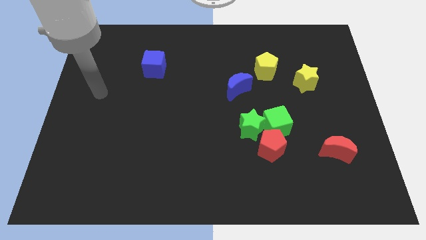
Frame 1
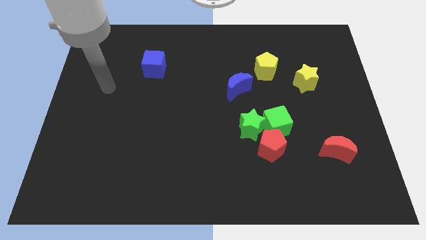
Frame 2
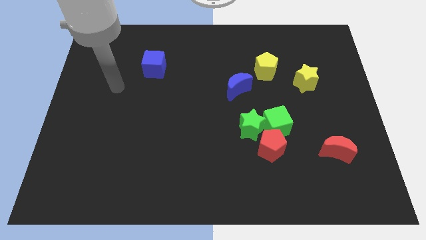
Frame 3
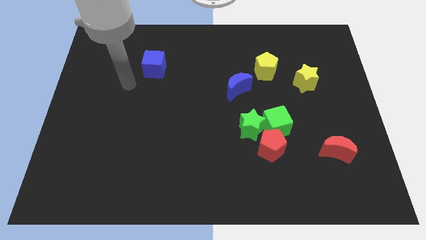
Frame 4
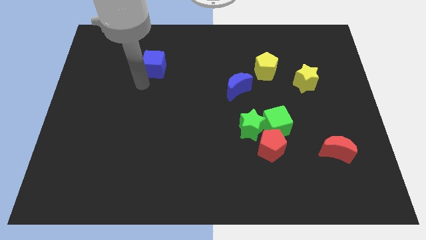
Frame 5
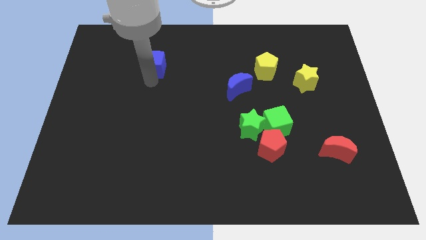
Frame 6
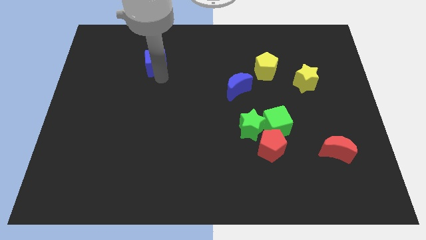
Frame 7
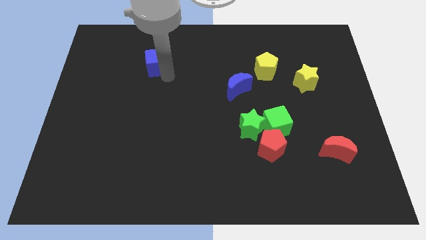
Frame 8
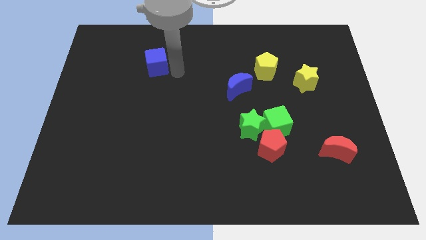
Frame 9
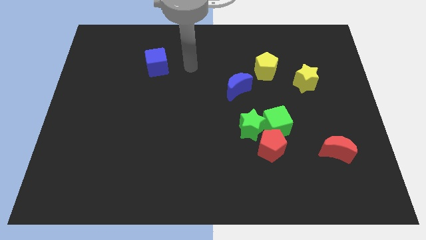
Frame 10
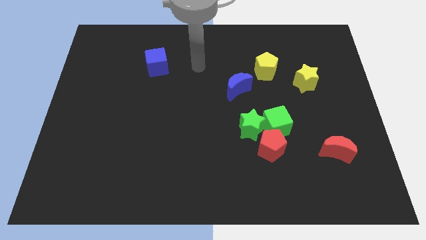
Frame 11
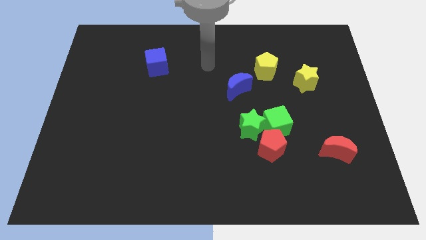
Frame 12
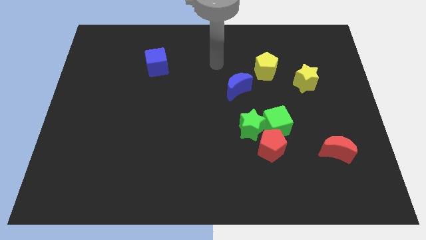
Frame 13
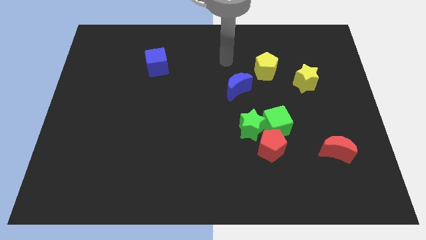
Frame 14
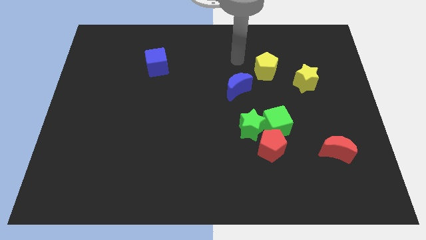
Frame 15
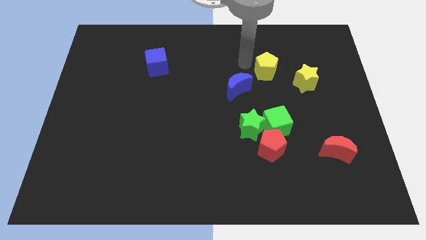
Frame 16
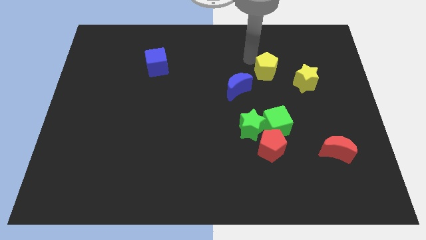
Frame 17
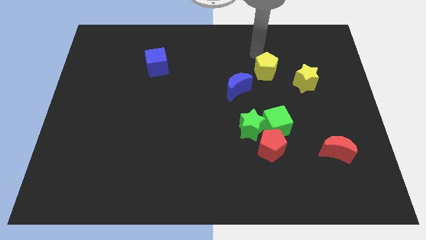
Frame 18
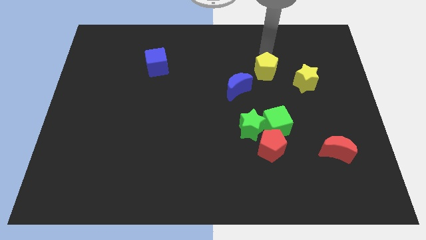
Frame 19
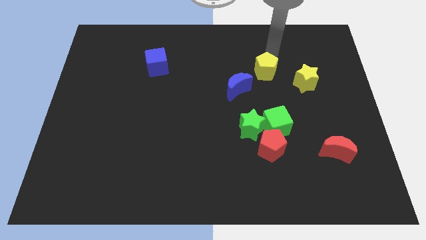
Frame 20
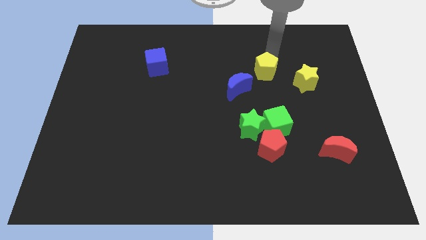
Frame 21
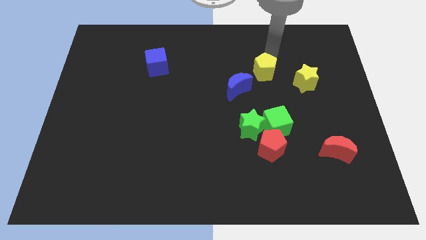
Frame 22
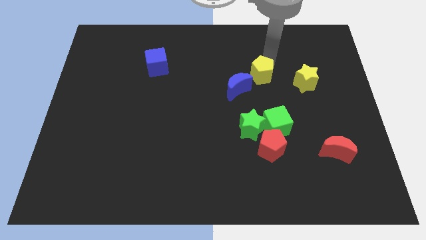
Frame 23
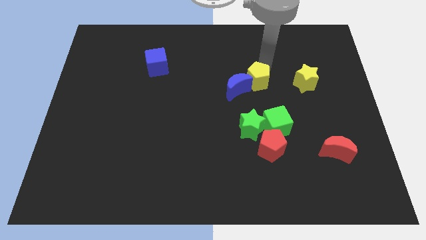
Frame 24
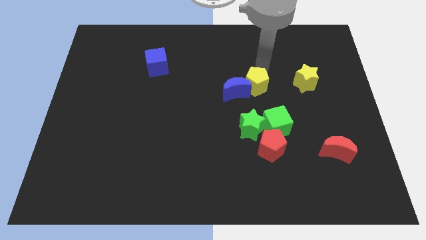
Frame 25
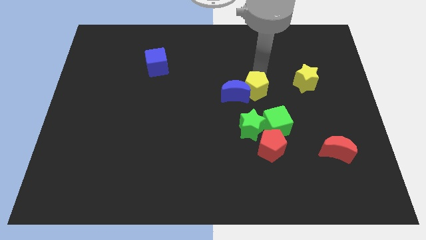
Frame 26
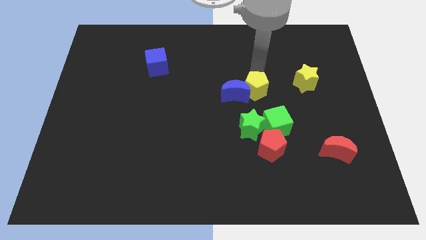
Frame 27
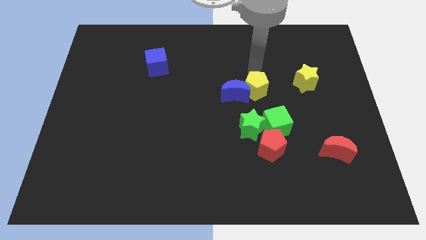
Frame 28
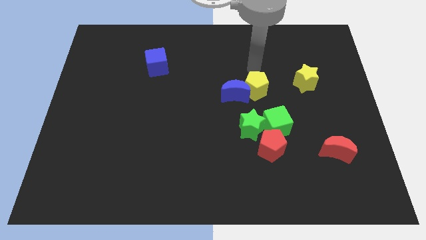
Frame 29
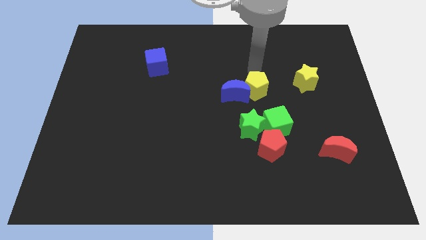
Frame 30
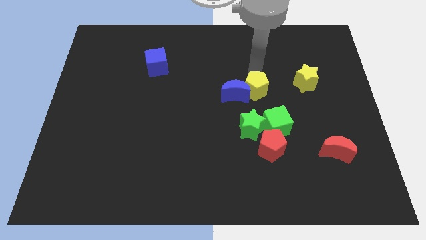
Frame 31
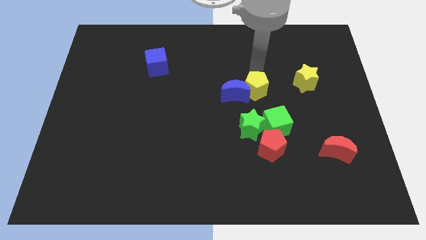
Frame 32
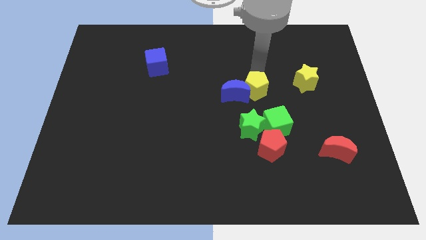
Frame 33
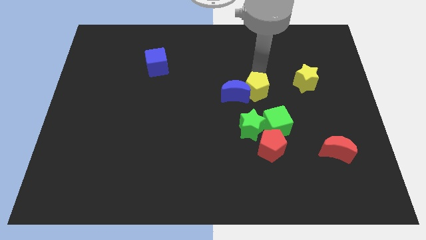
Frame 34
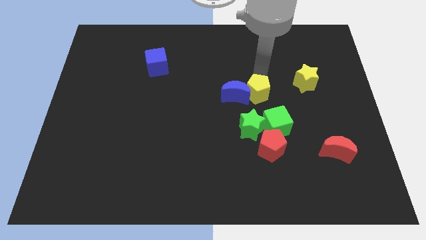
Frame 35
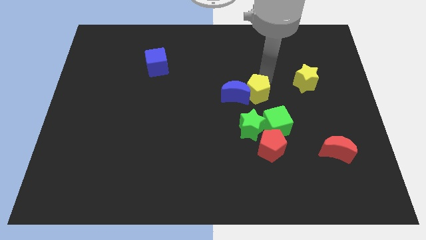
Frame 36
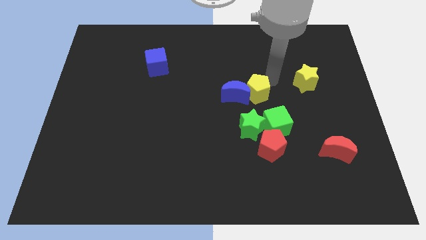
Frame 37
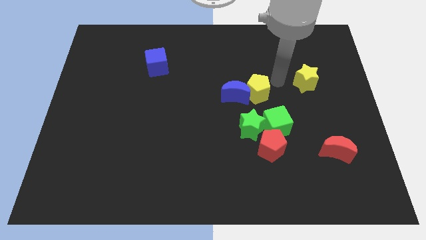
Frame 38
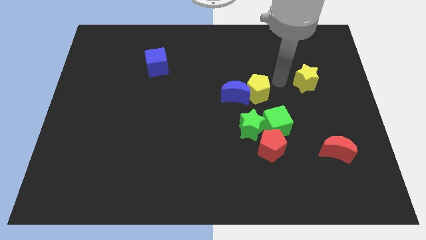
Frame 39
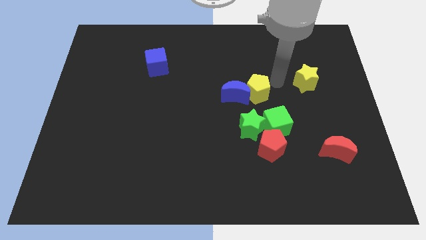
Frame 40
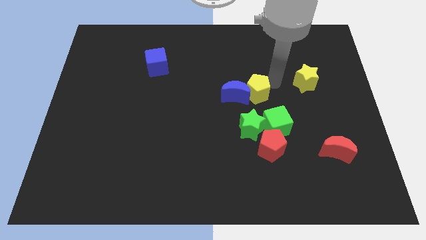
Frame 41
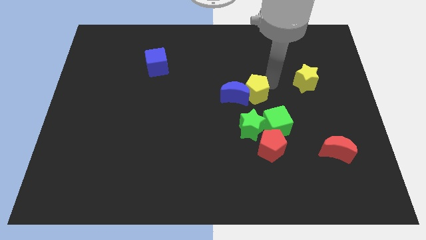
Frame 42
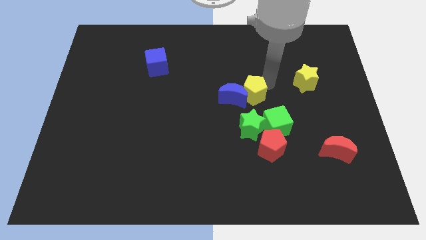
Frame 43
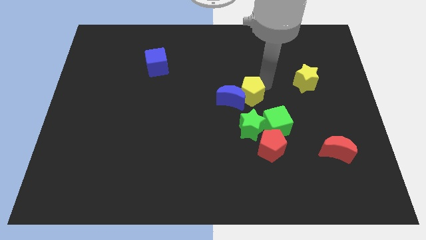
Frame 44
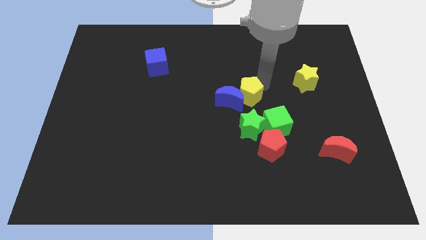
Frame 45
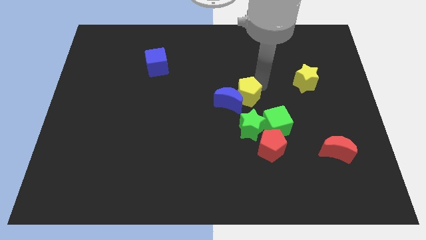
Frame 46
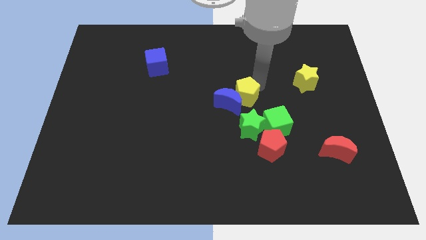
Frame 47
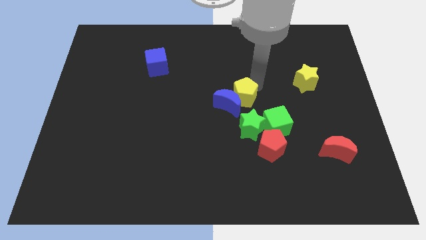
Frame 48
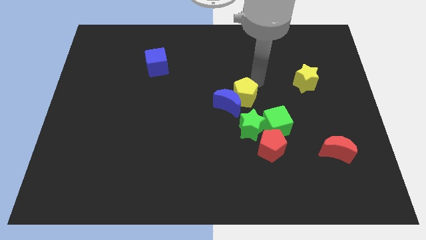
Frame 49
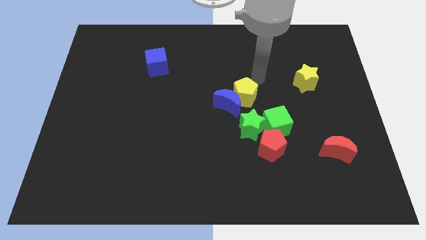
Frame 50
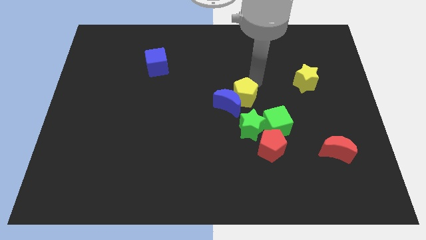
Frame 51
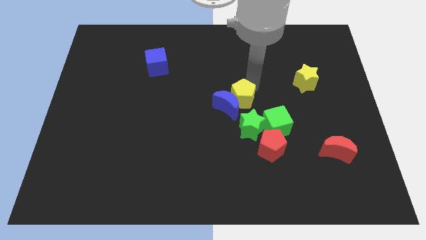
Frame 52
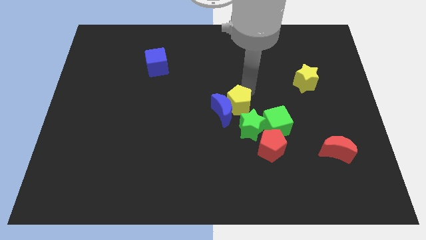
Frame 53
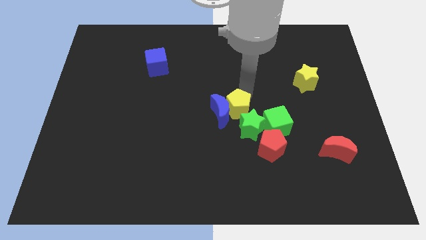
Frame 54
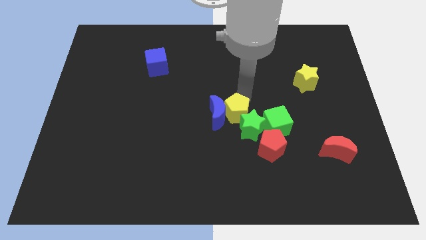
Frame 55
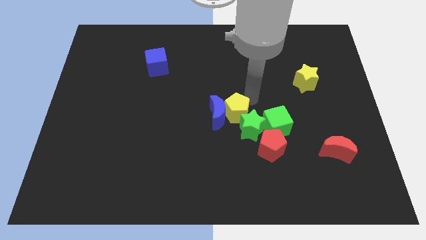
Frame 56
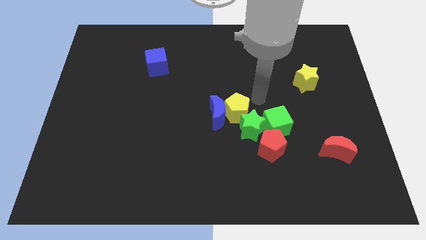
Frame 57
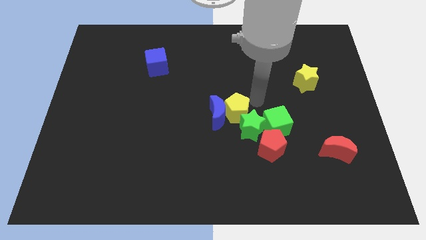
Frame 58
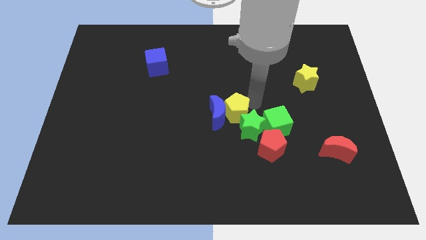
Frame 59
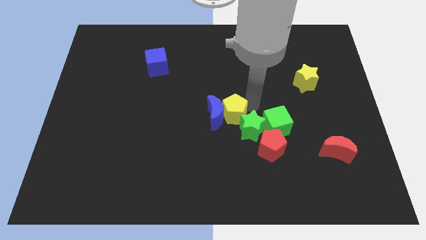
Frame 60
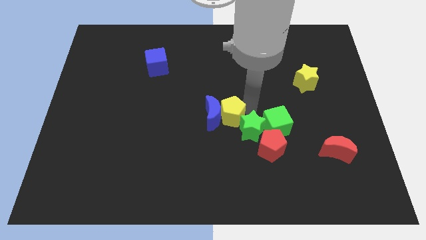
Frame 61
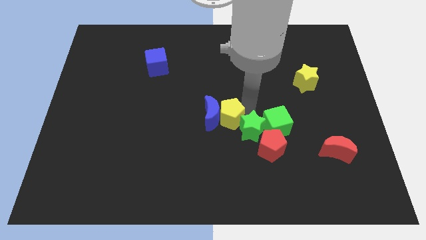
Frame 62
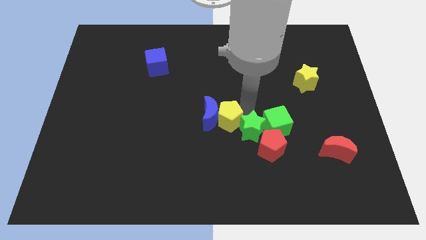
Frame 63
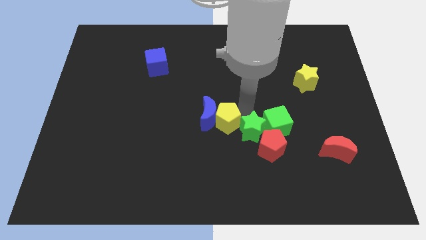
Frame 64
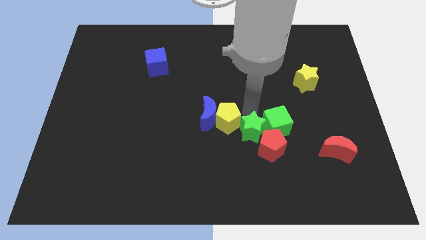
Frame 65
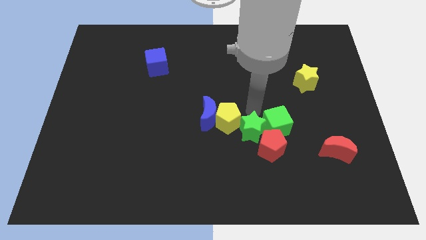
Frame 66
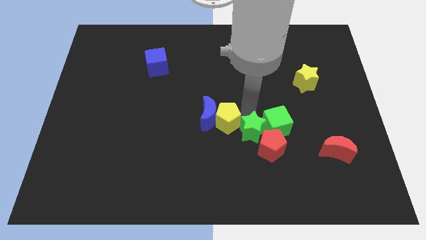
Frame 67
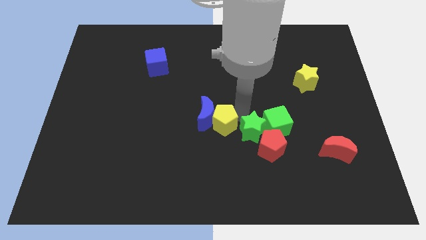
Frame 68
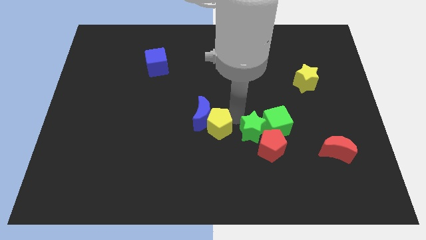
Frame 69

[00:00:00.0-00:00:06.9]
push the yellow pentagon down and then left

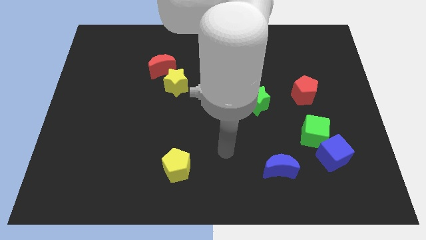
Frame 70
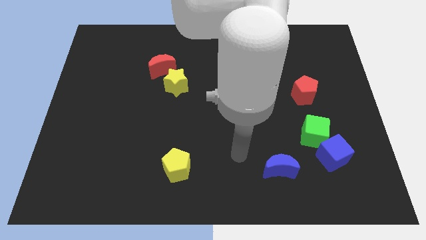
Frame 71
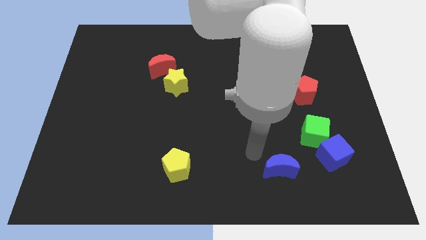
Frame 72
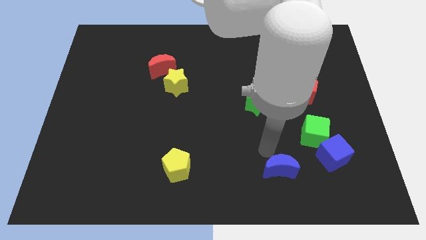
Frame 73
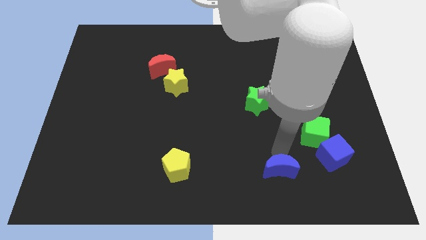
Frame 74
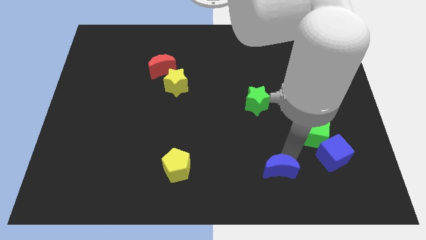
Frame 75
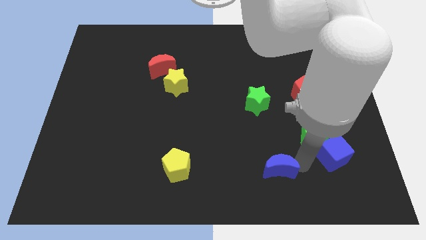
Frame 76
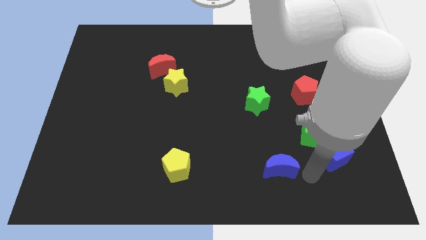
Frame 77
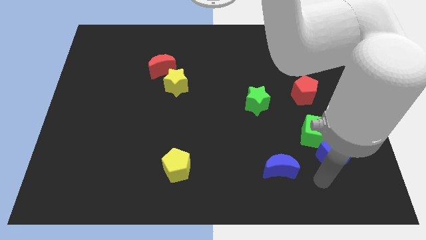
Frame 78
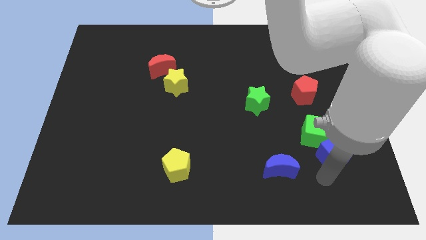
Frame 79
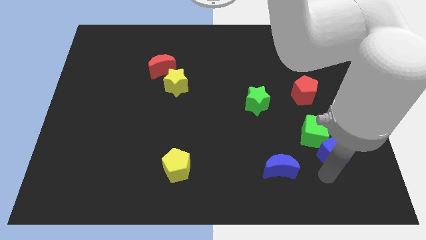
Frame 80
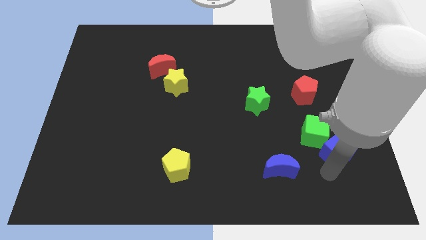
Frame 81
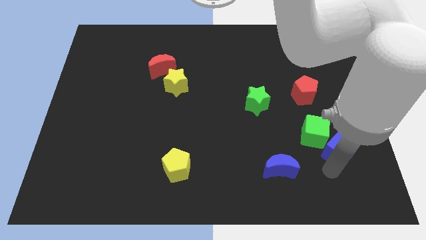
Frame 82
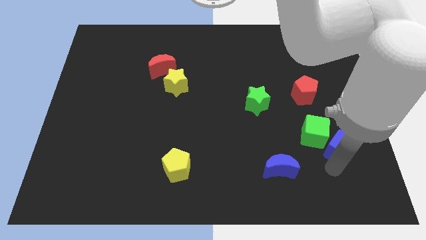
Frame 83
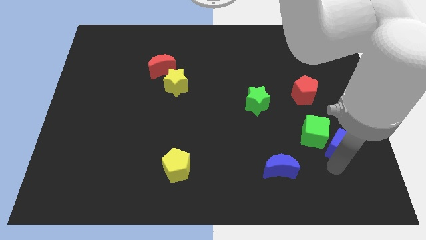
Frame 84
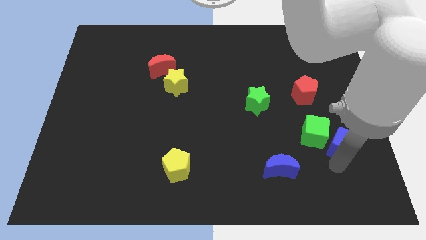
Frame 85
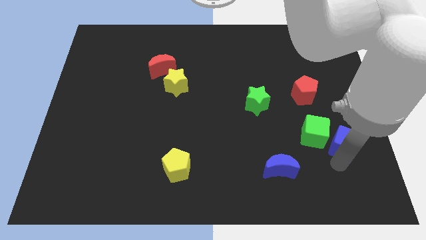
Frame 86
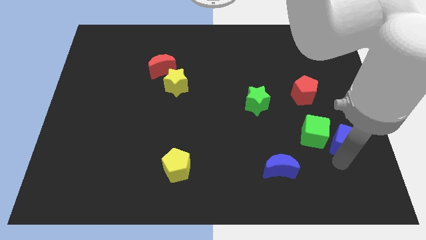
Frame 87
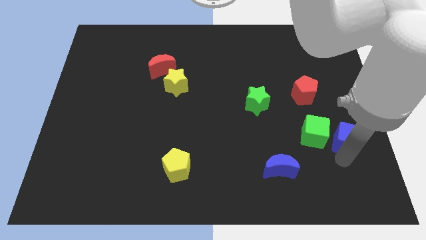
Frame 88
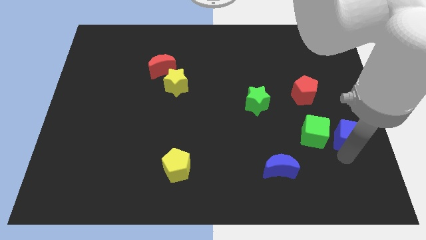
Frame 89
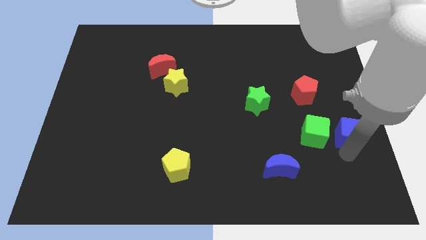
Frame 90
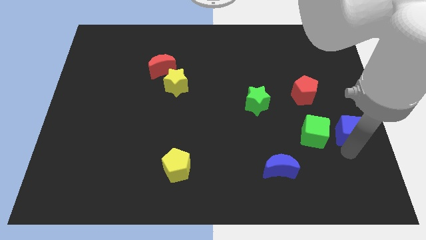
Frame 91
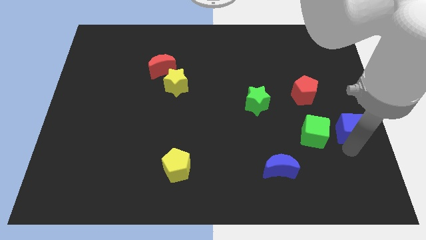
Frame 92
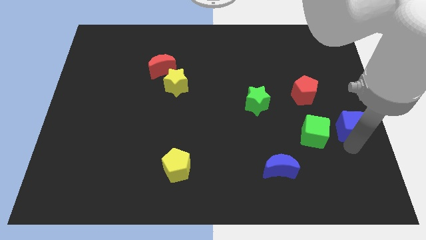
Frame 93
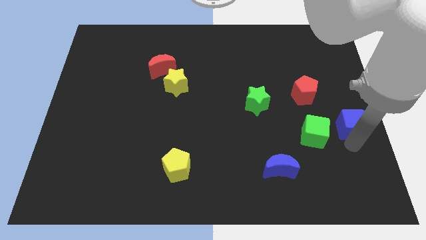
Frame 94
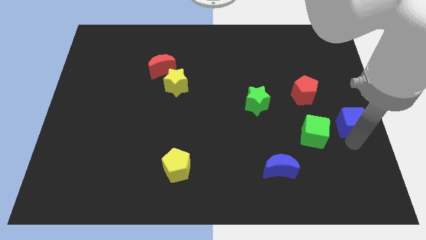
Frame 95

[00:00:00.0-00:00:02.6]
push the blue cube up slightly
